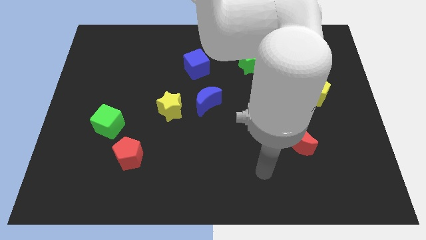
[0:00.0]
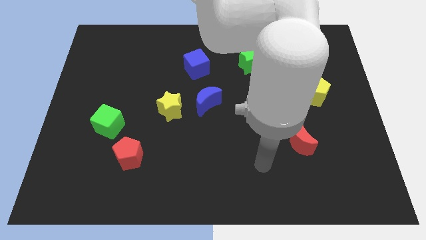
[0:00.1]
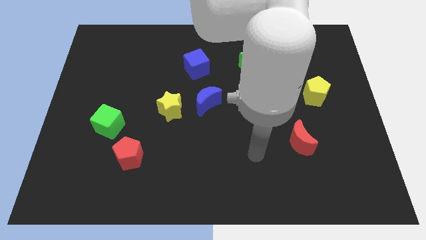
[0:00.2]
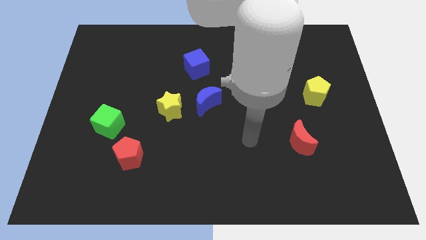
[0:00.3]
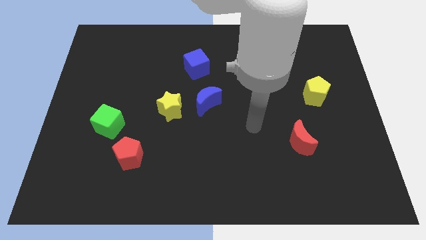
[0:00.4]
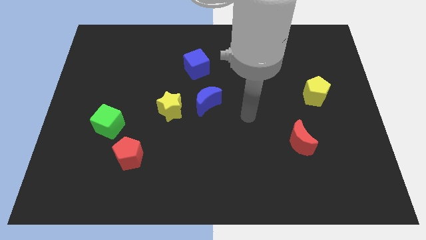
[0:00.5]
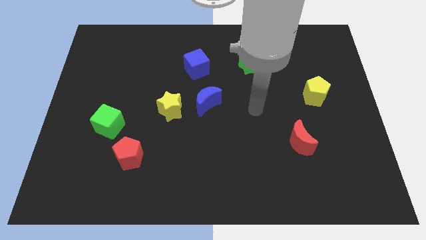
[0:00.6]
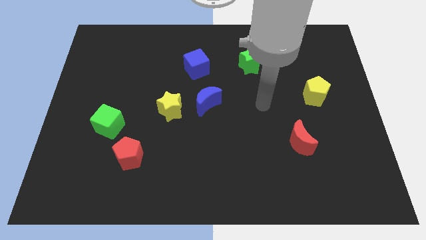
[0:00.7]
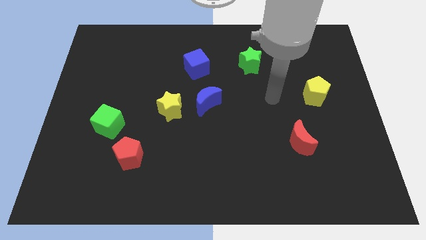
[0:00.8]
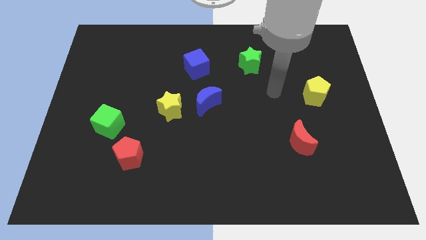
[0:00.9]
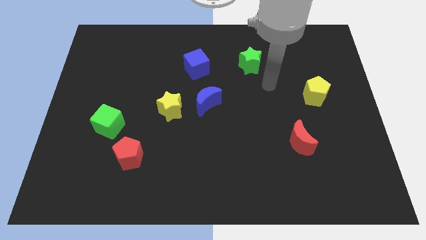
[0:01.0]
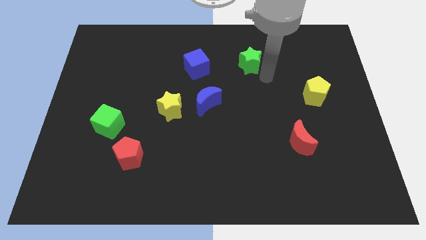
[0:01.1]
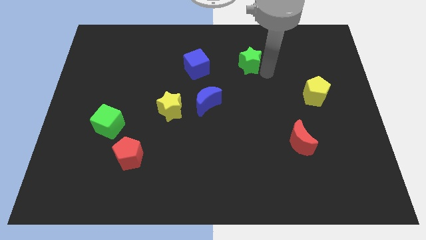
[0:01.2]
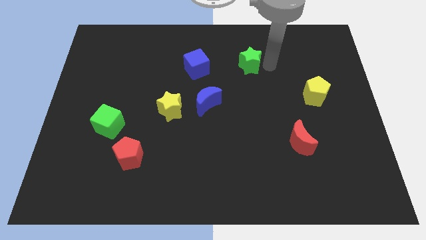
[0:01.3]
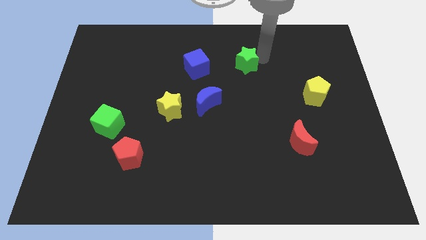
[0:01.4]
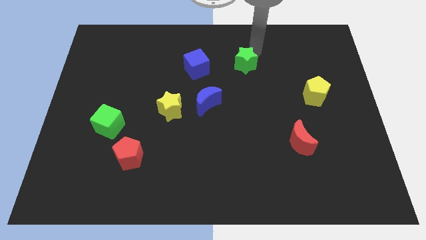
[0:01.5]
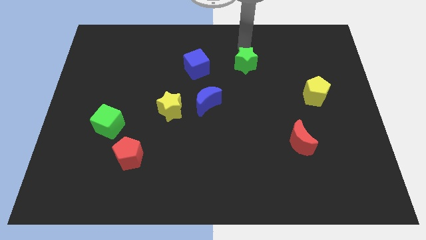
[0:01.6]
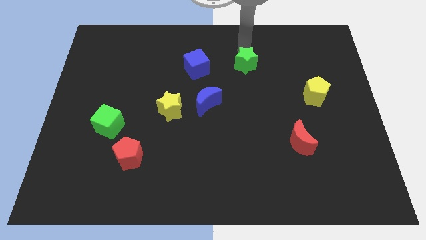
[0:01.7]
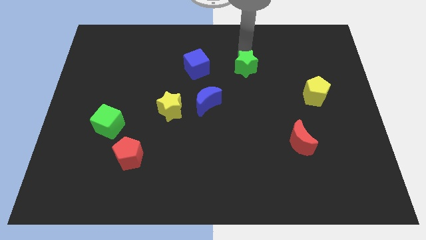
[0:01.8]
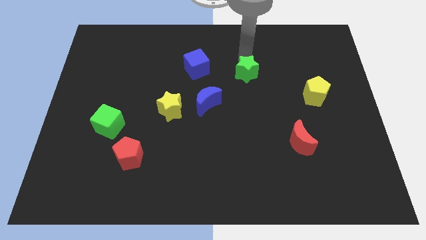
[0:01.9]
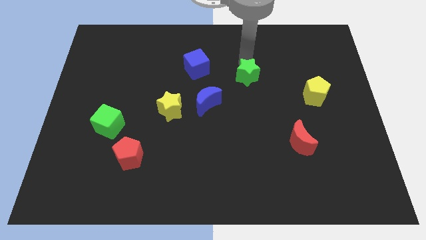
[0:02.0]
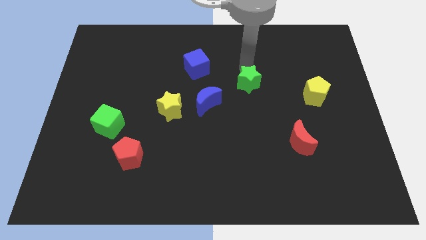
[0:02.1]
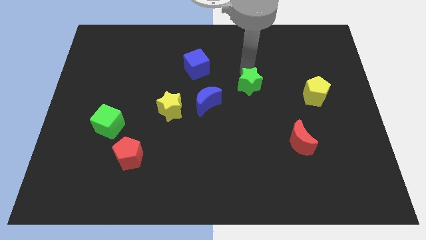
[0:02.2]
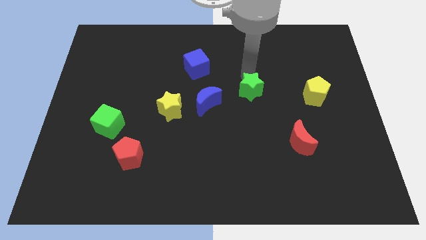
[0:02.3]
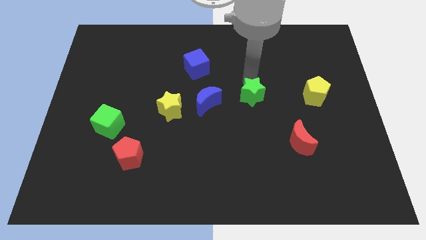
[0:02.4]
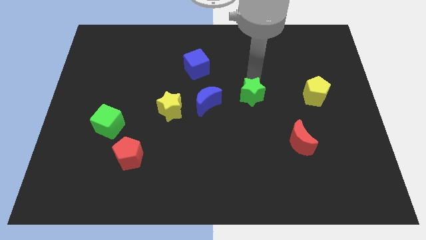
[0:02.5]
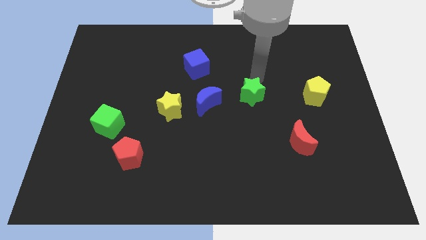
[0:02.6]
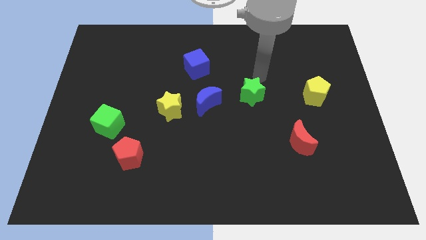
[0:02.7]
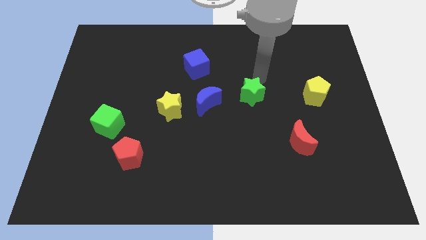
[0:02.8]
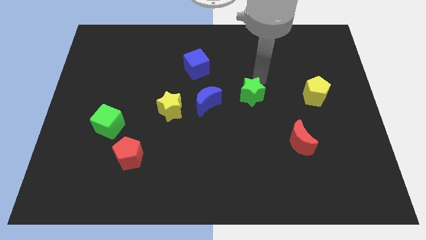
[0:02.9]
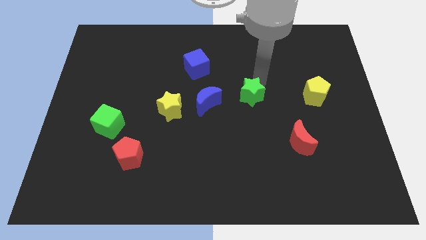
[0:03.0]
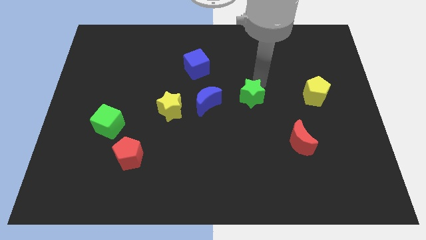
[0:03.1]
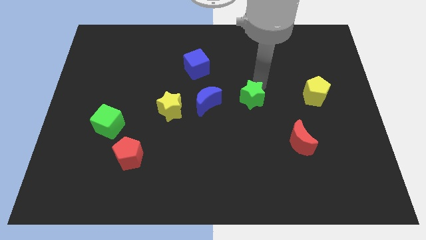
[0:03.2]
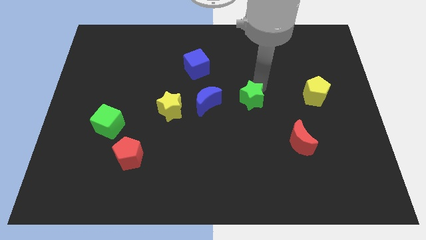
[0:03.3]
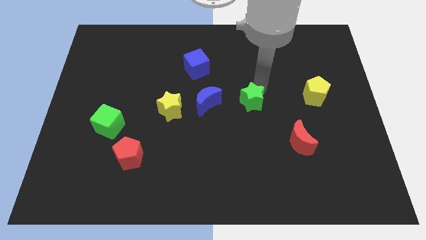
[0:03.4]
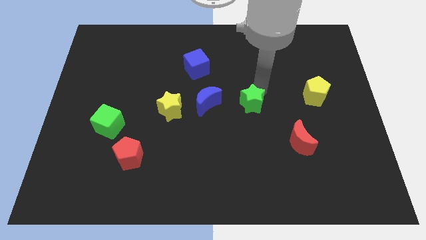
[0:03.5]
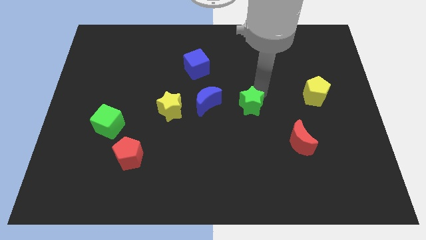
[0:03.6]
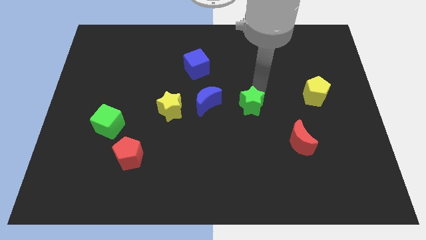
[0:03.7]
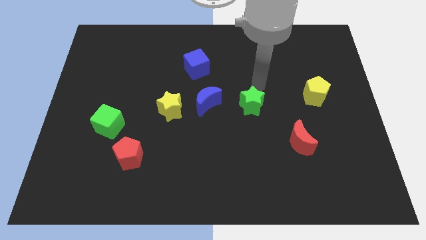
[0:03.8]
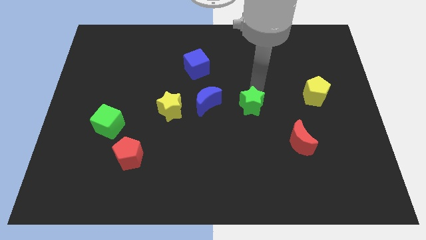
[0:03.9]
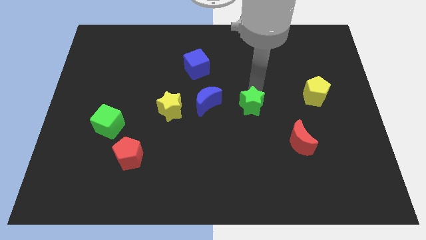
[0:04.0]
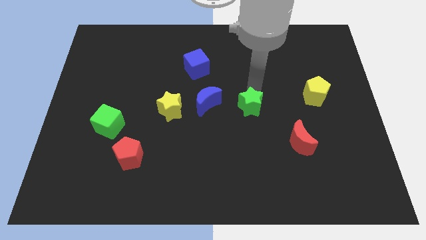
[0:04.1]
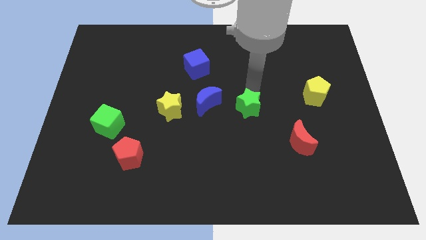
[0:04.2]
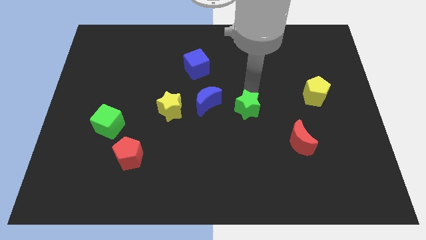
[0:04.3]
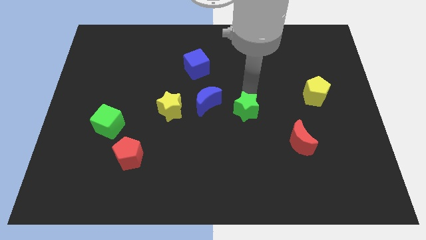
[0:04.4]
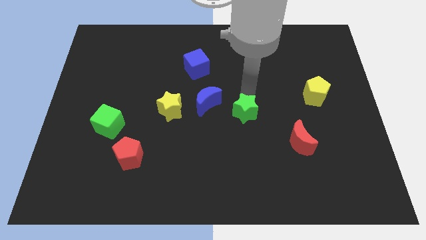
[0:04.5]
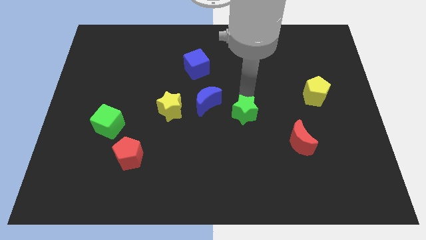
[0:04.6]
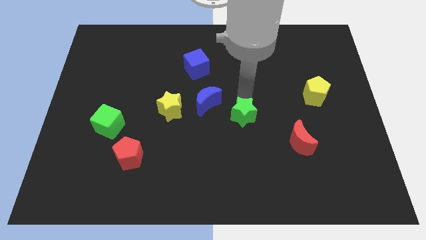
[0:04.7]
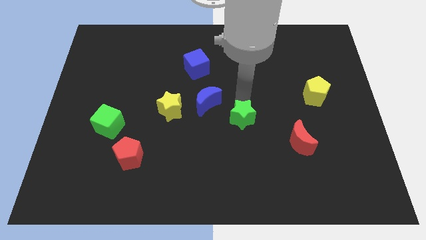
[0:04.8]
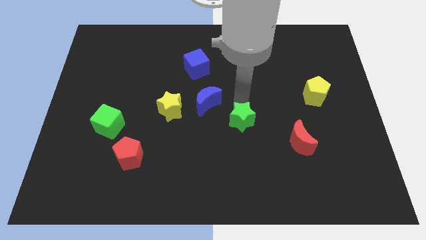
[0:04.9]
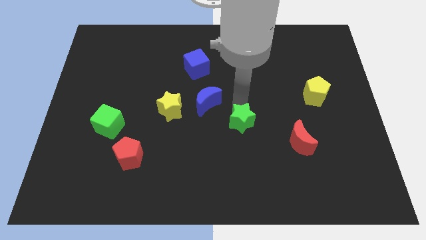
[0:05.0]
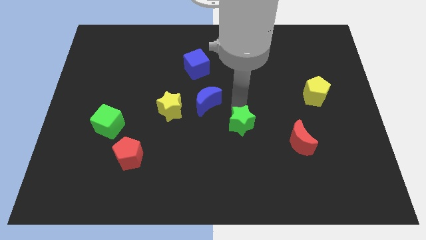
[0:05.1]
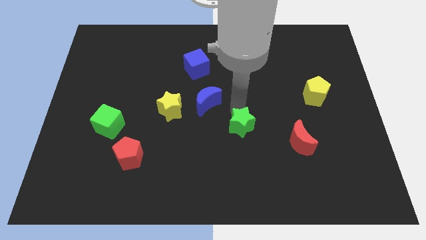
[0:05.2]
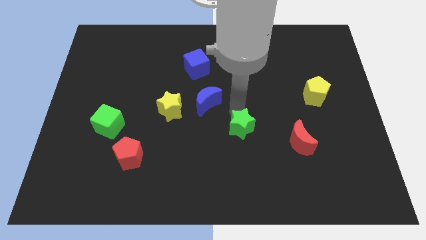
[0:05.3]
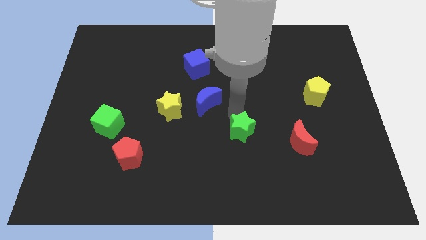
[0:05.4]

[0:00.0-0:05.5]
push the green star down

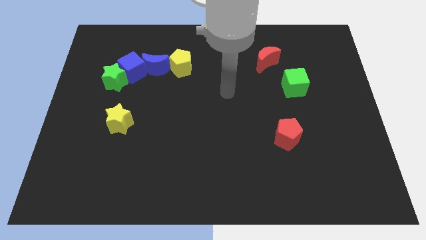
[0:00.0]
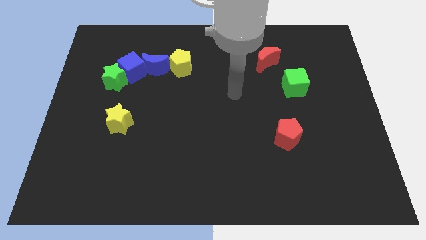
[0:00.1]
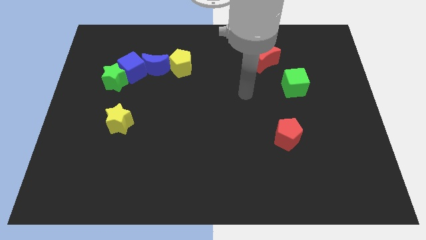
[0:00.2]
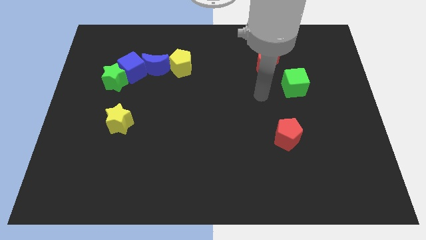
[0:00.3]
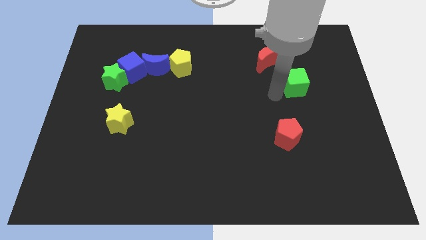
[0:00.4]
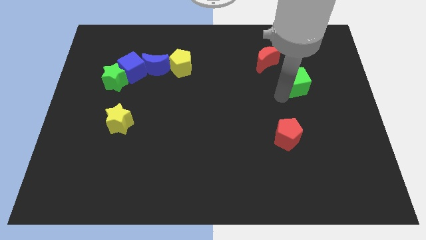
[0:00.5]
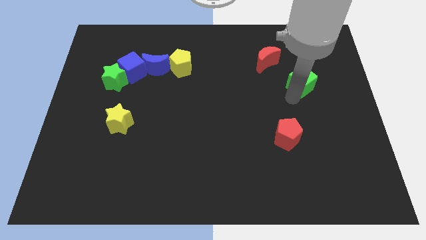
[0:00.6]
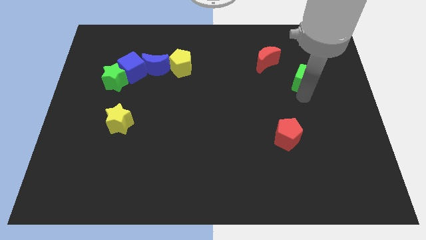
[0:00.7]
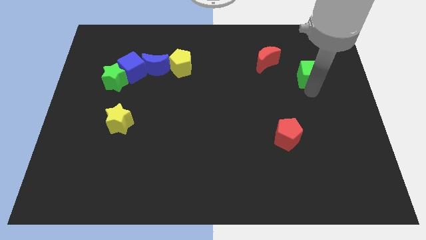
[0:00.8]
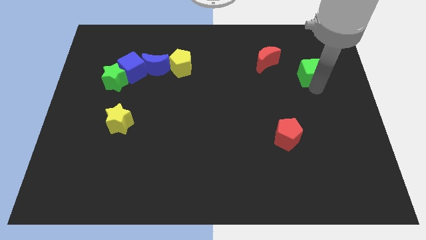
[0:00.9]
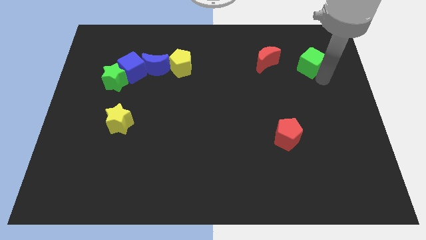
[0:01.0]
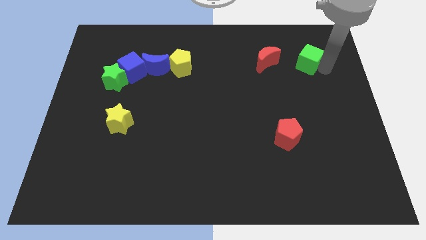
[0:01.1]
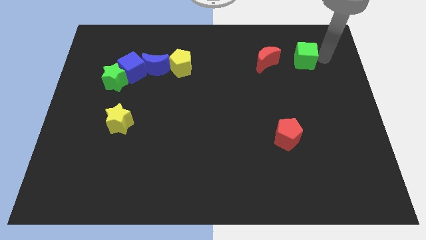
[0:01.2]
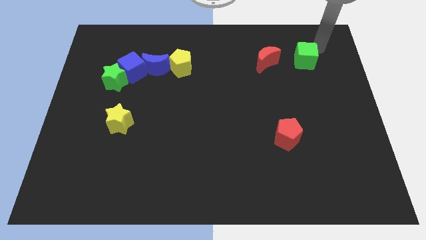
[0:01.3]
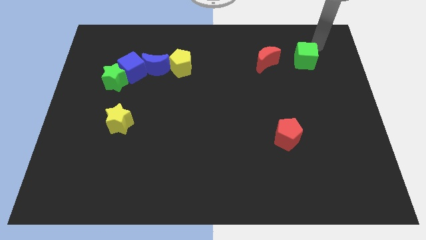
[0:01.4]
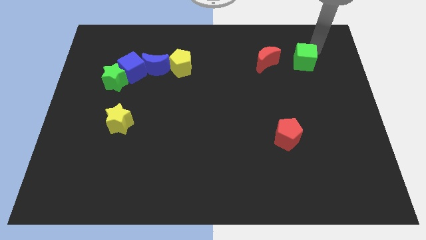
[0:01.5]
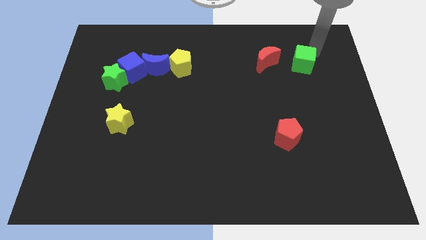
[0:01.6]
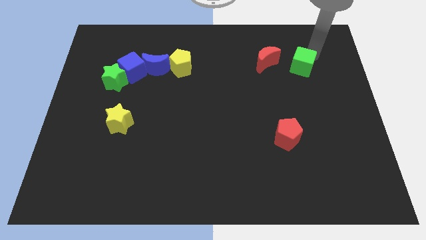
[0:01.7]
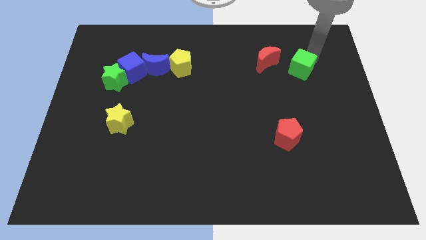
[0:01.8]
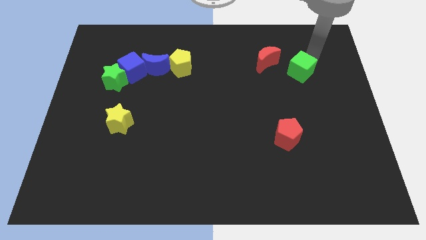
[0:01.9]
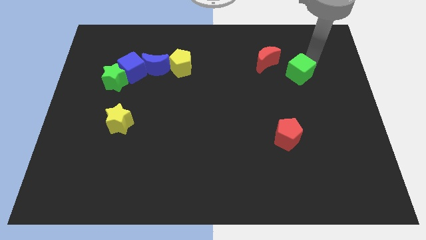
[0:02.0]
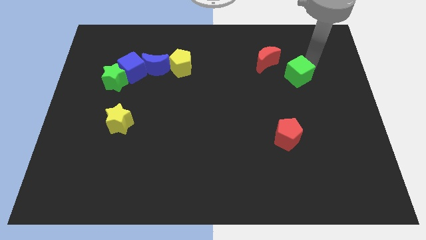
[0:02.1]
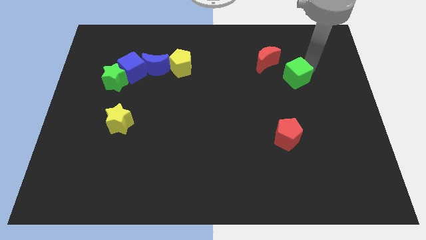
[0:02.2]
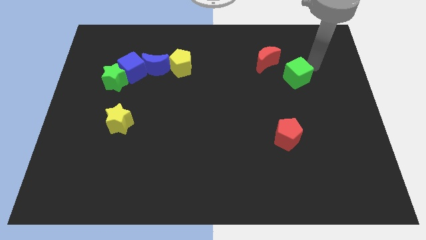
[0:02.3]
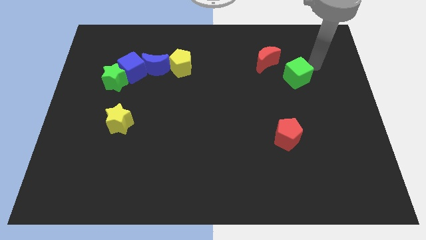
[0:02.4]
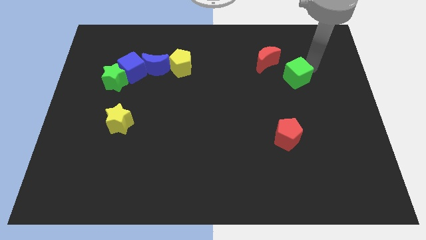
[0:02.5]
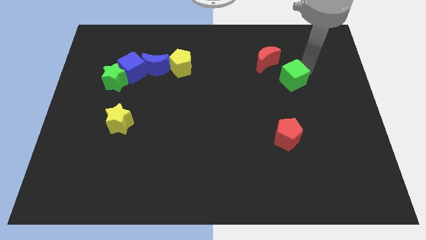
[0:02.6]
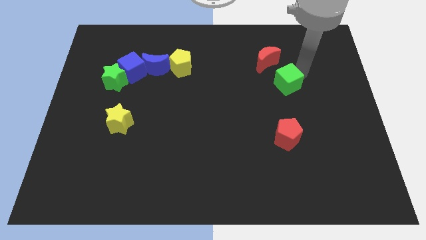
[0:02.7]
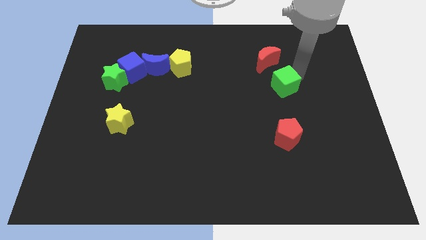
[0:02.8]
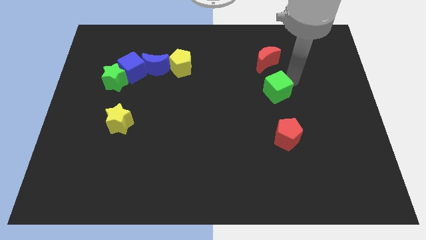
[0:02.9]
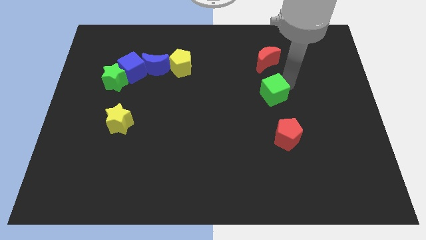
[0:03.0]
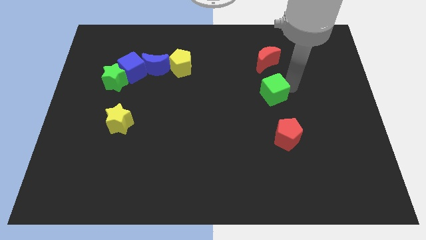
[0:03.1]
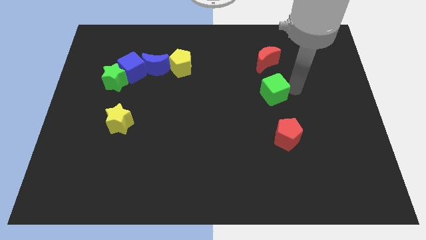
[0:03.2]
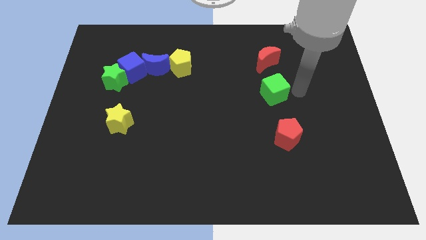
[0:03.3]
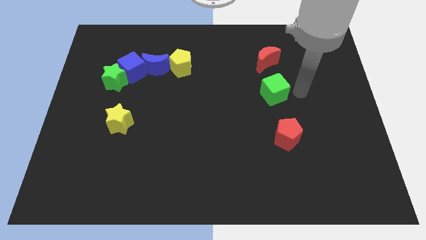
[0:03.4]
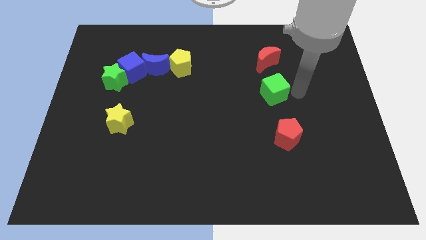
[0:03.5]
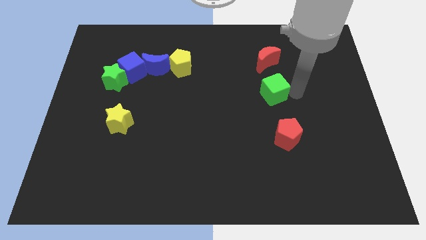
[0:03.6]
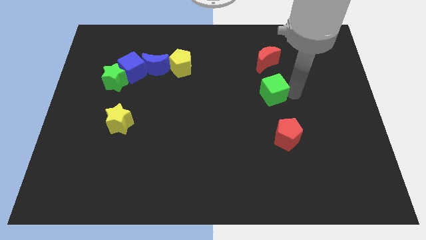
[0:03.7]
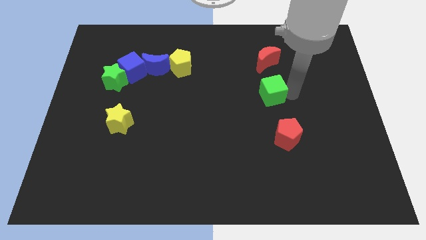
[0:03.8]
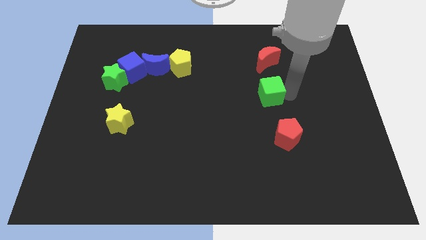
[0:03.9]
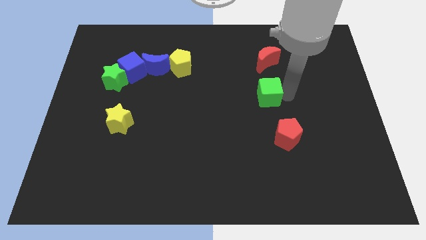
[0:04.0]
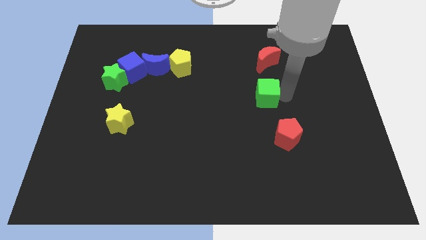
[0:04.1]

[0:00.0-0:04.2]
move the green cube somewhat to the left
